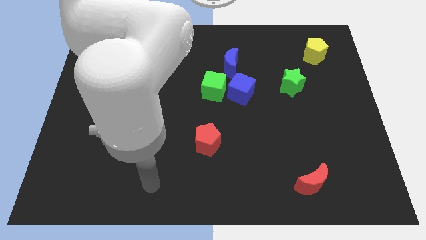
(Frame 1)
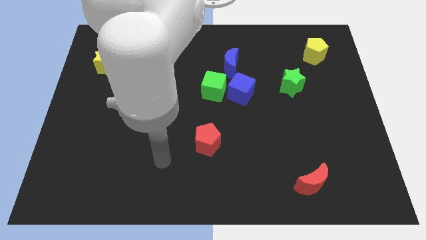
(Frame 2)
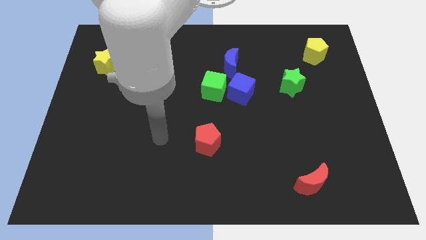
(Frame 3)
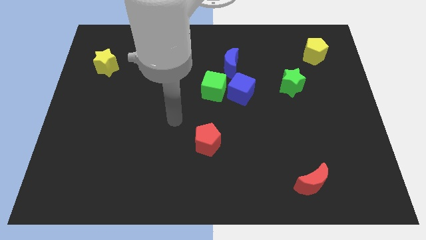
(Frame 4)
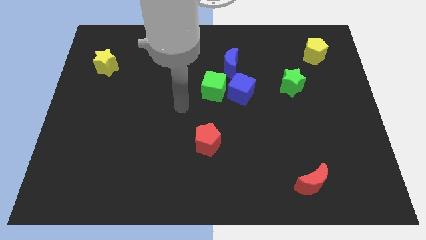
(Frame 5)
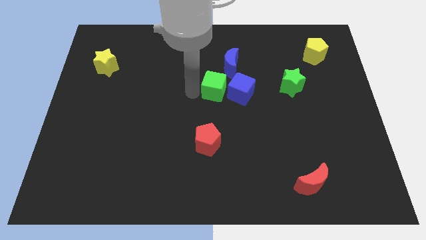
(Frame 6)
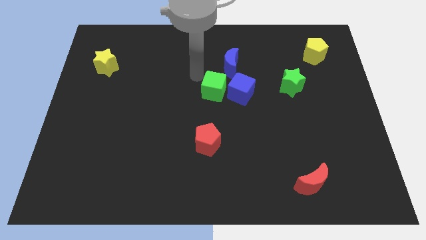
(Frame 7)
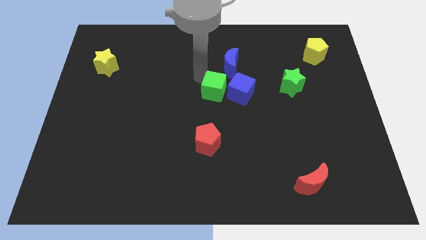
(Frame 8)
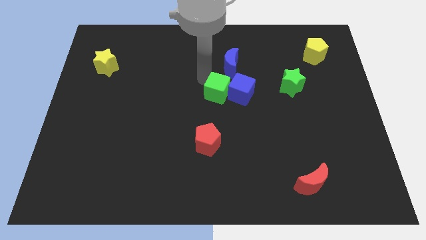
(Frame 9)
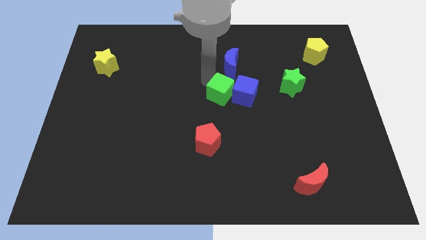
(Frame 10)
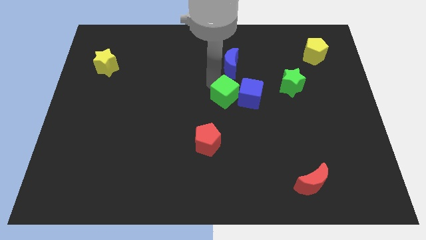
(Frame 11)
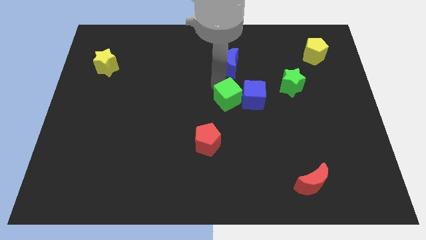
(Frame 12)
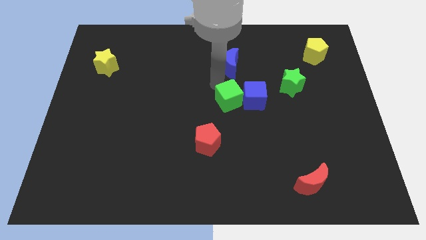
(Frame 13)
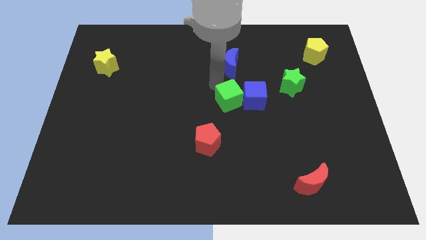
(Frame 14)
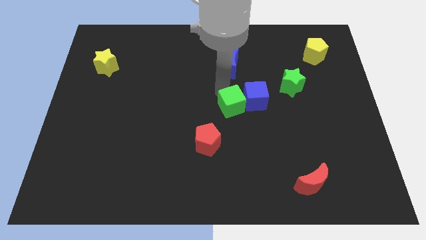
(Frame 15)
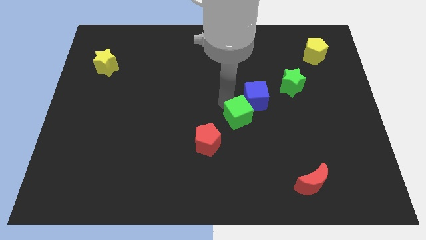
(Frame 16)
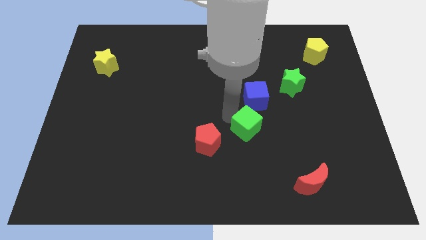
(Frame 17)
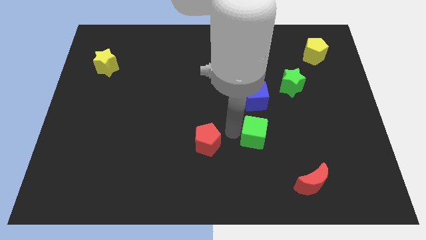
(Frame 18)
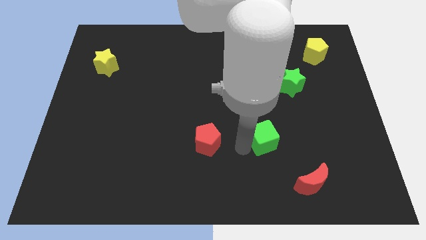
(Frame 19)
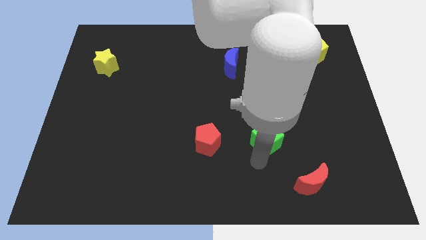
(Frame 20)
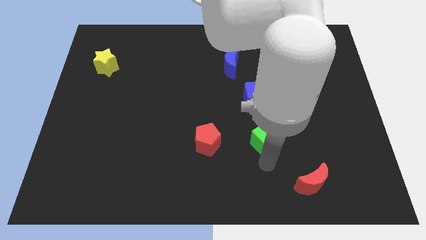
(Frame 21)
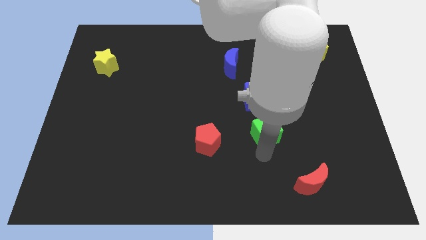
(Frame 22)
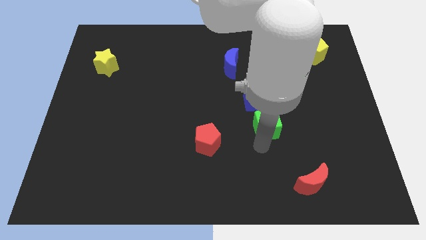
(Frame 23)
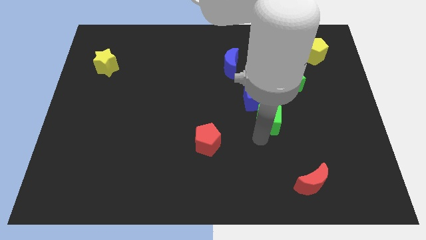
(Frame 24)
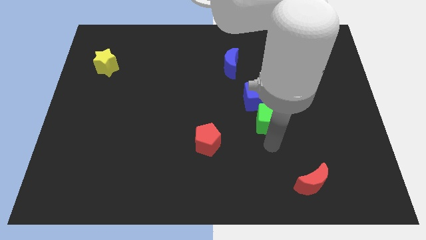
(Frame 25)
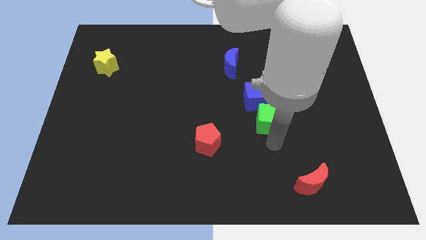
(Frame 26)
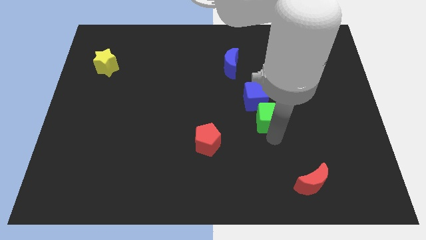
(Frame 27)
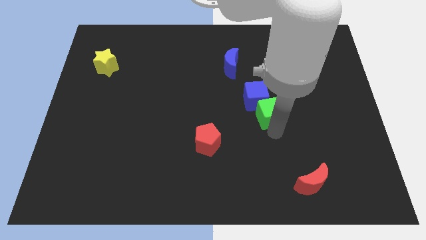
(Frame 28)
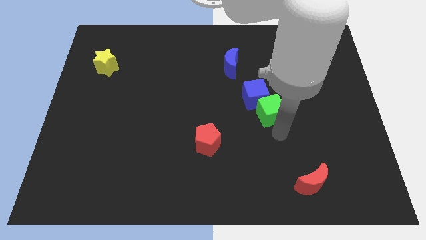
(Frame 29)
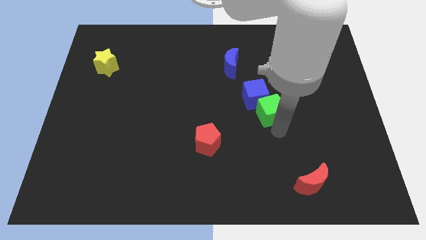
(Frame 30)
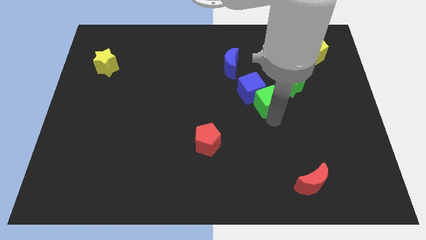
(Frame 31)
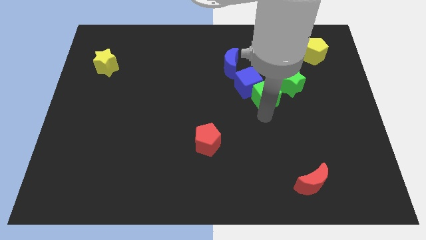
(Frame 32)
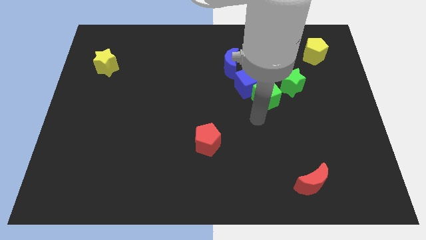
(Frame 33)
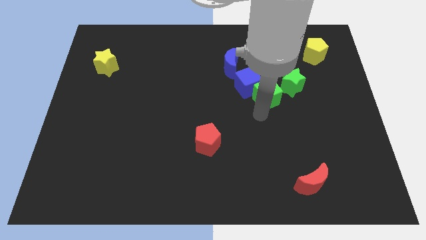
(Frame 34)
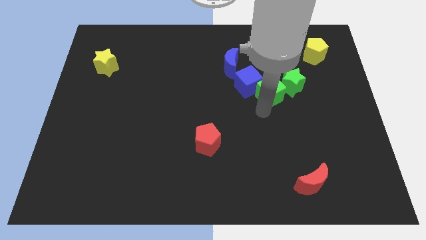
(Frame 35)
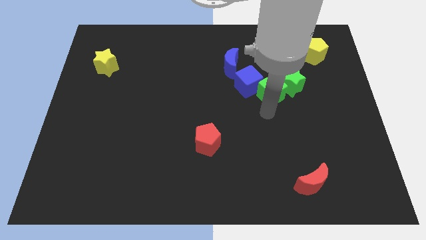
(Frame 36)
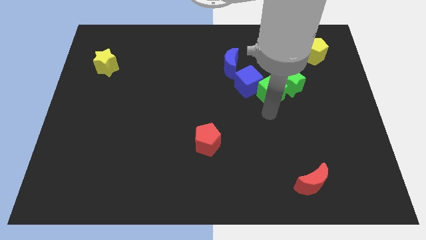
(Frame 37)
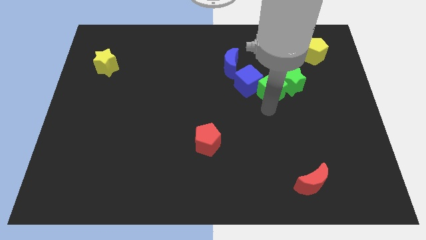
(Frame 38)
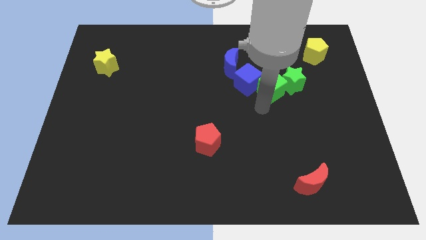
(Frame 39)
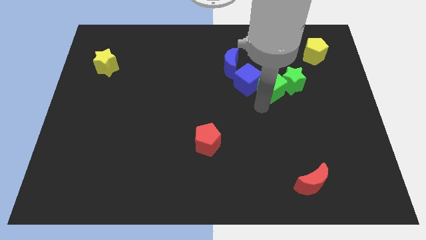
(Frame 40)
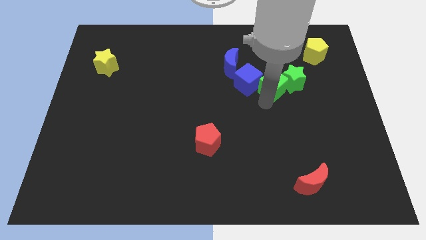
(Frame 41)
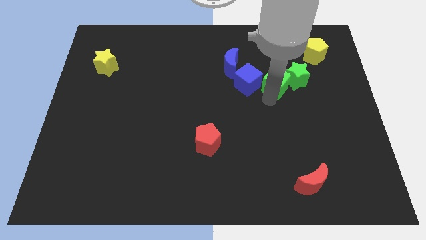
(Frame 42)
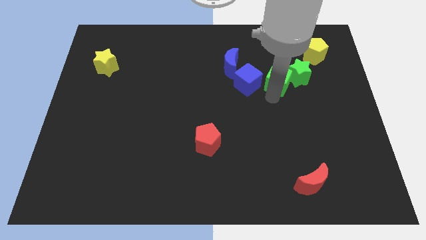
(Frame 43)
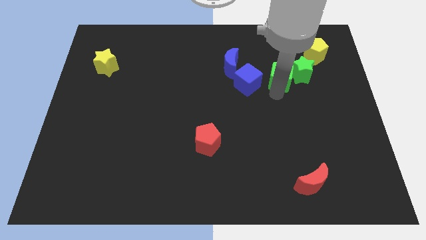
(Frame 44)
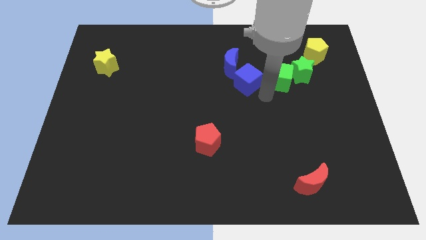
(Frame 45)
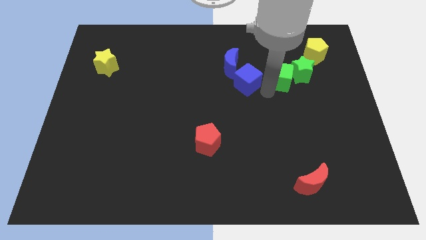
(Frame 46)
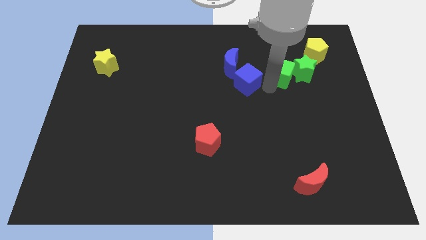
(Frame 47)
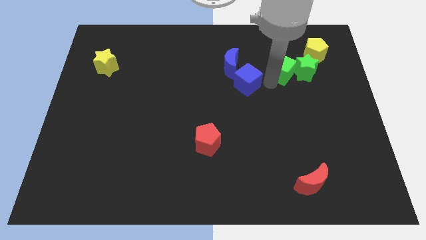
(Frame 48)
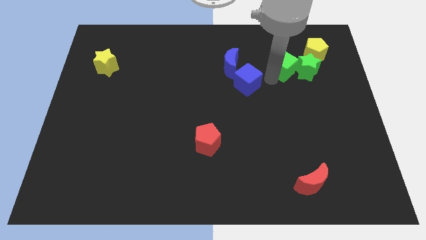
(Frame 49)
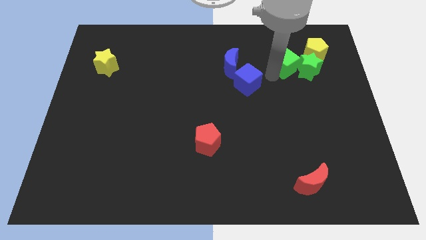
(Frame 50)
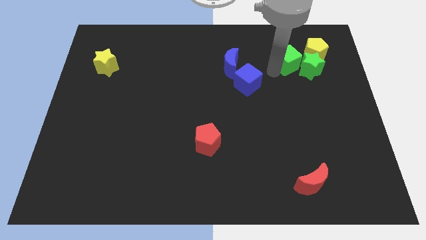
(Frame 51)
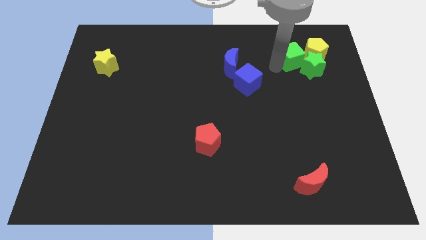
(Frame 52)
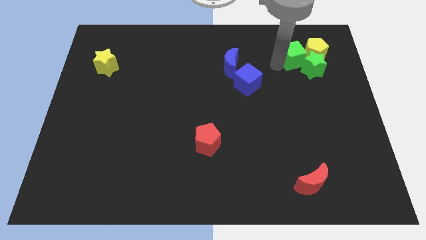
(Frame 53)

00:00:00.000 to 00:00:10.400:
push the green cube to the yellow pentagon

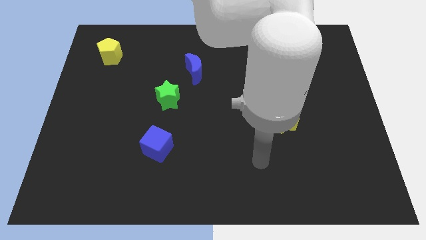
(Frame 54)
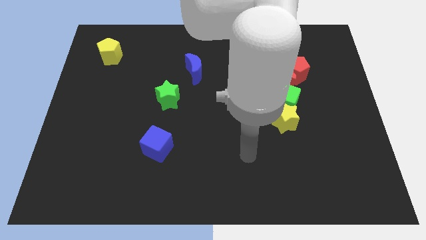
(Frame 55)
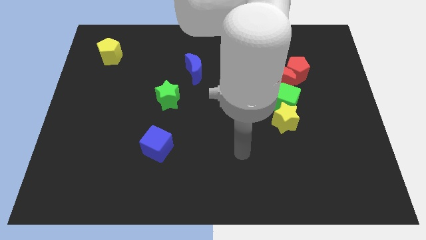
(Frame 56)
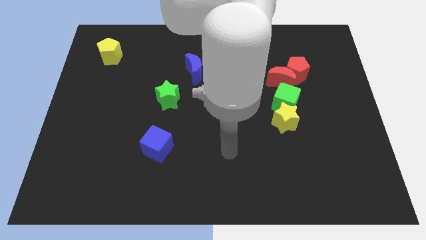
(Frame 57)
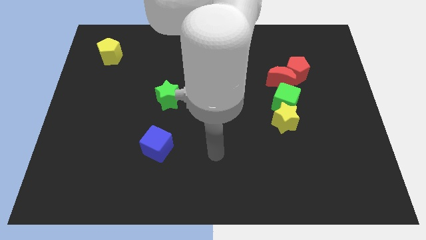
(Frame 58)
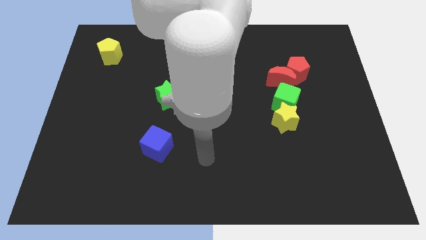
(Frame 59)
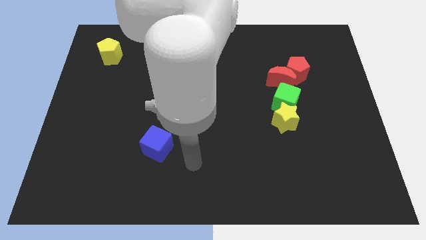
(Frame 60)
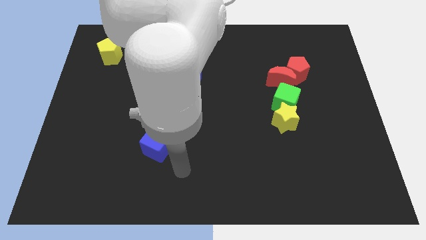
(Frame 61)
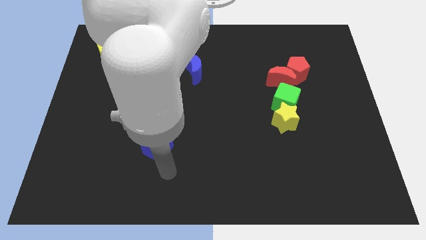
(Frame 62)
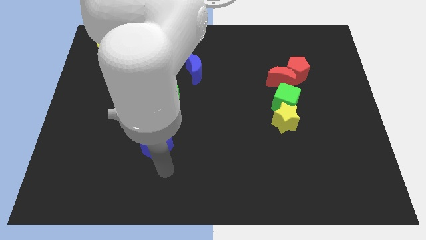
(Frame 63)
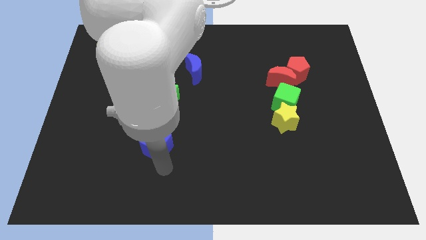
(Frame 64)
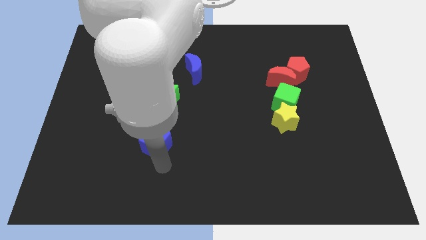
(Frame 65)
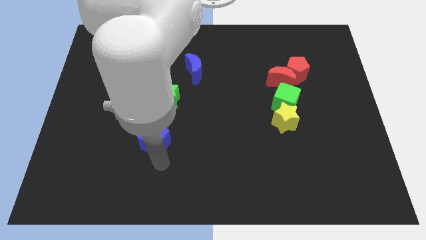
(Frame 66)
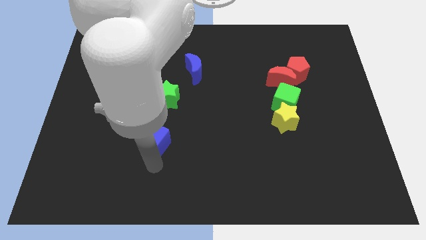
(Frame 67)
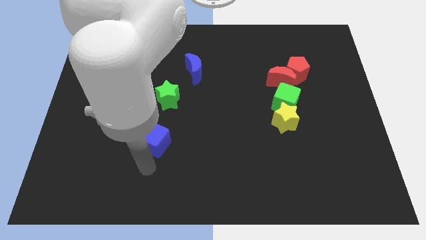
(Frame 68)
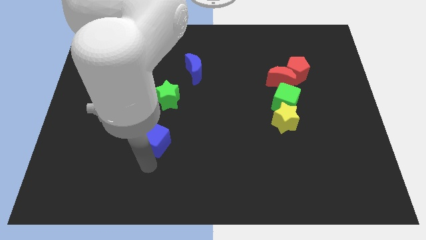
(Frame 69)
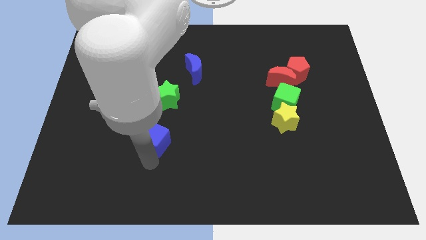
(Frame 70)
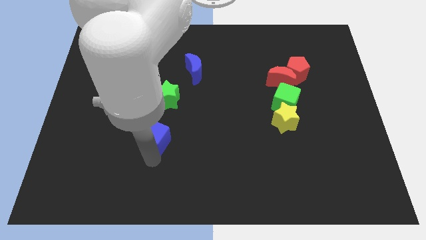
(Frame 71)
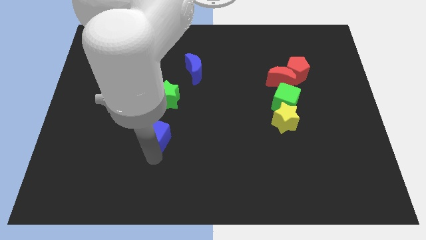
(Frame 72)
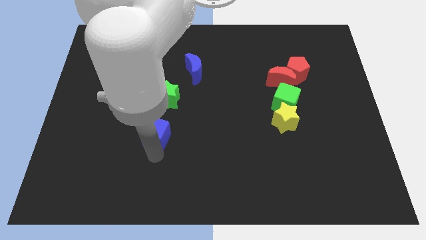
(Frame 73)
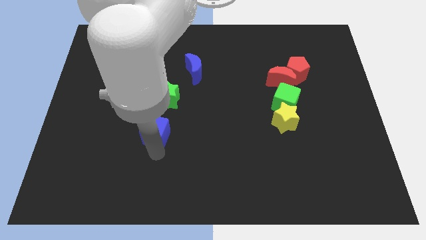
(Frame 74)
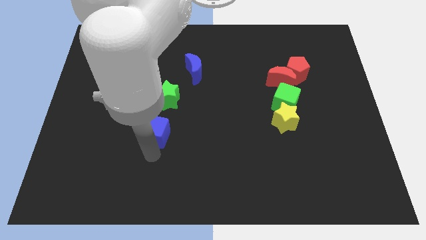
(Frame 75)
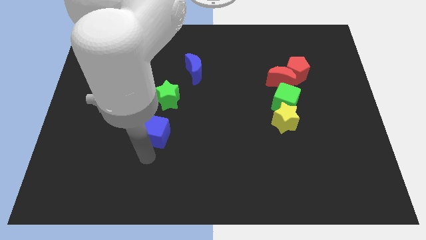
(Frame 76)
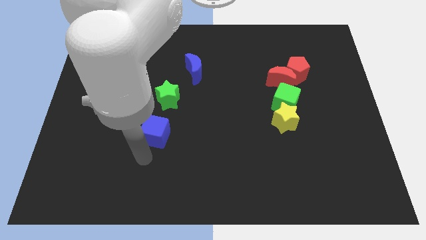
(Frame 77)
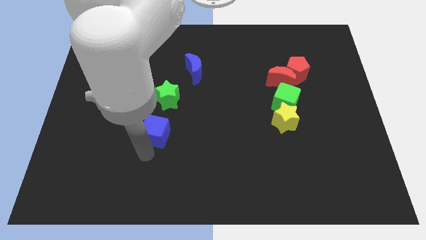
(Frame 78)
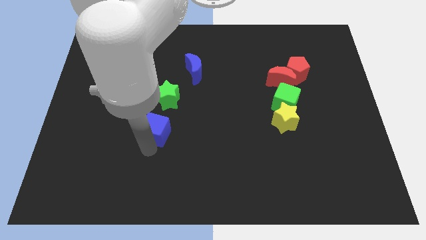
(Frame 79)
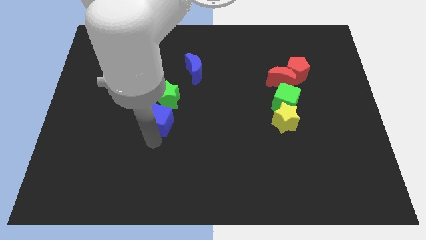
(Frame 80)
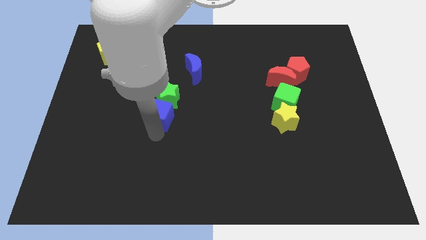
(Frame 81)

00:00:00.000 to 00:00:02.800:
move the blue cube to the green star
